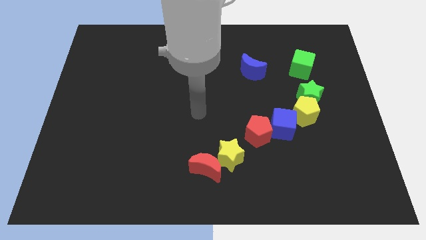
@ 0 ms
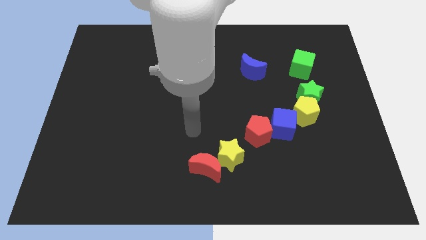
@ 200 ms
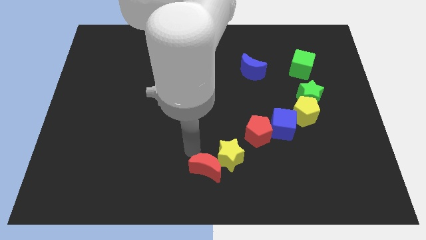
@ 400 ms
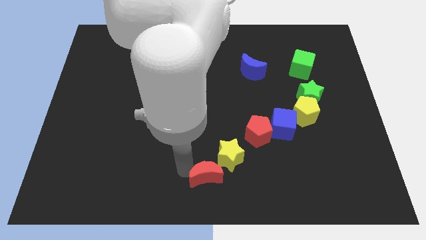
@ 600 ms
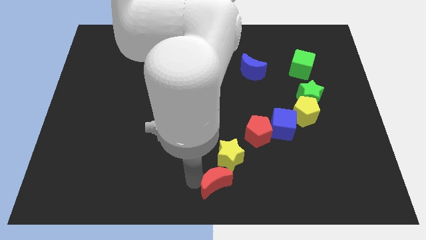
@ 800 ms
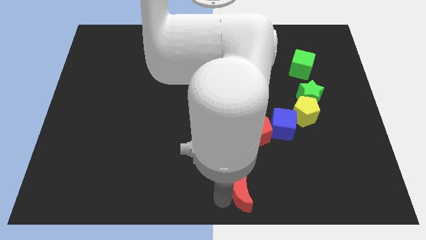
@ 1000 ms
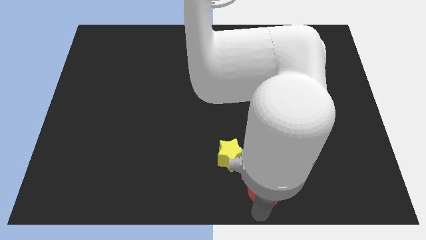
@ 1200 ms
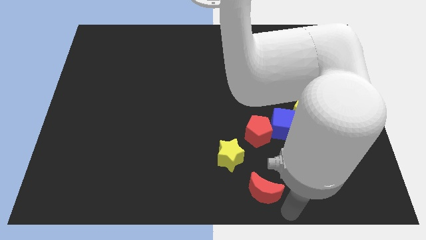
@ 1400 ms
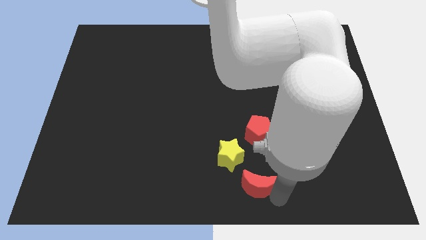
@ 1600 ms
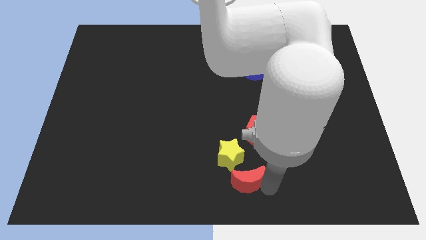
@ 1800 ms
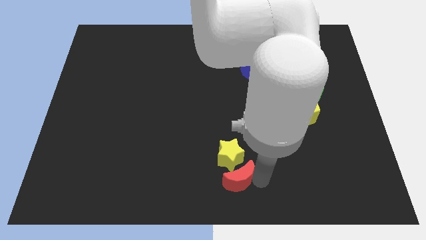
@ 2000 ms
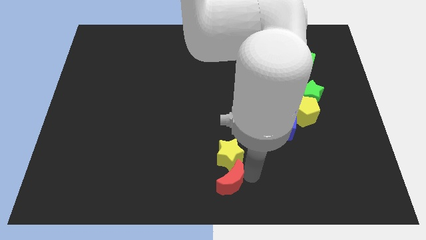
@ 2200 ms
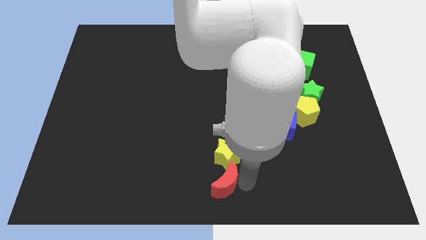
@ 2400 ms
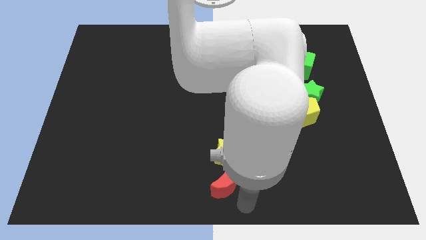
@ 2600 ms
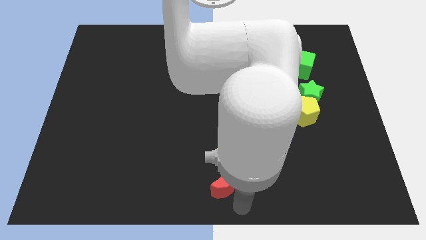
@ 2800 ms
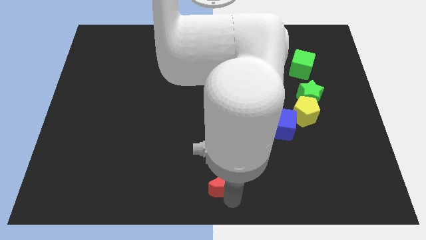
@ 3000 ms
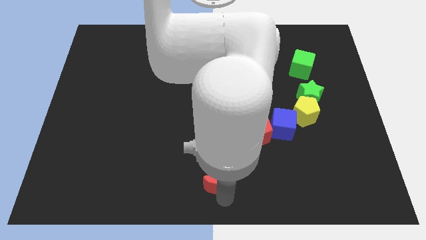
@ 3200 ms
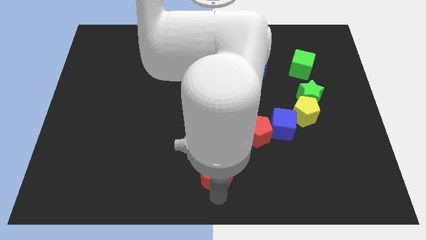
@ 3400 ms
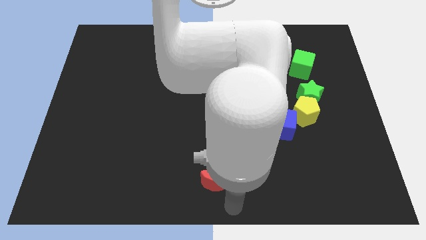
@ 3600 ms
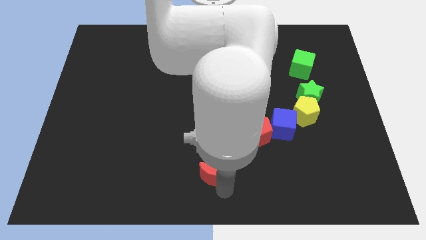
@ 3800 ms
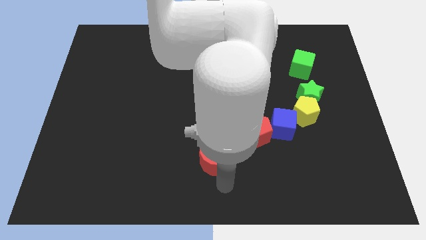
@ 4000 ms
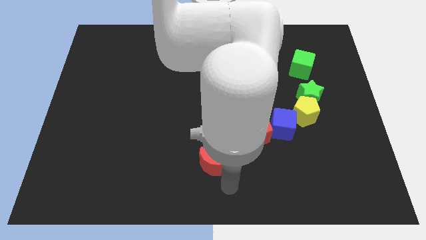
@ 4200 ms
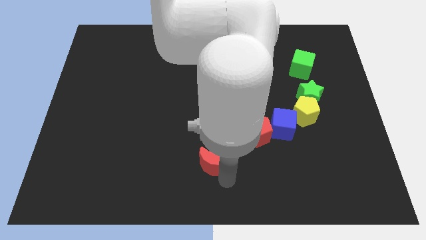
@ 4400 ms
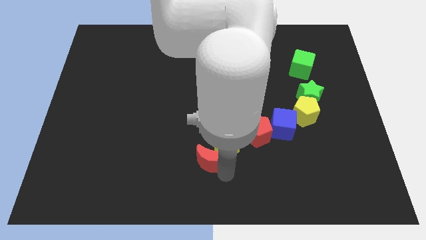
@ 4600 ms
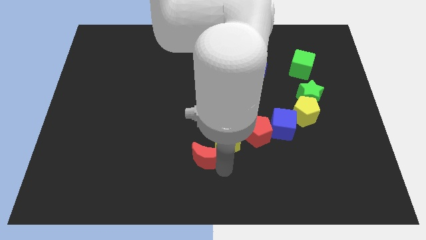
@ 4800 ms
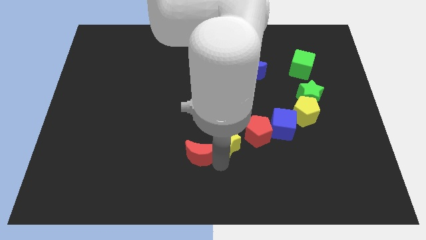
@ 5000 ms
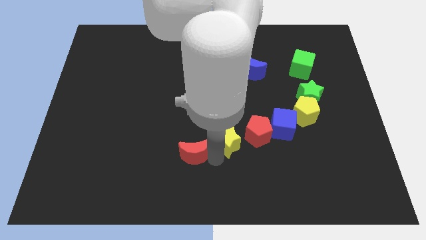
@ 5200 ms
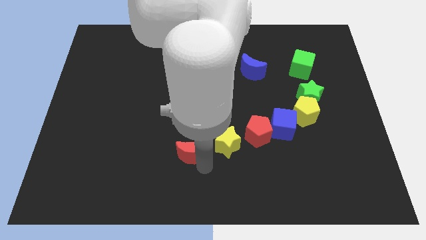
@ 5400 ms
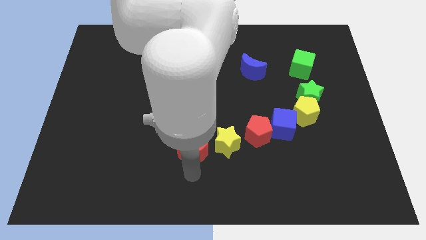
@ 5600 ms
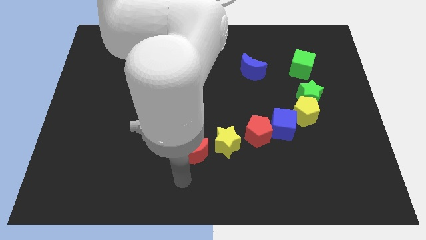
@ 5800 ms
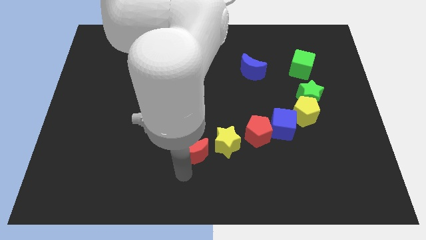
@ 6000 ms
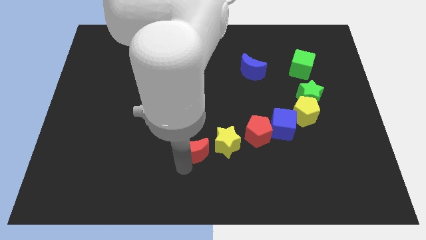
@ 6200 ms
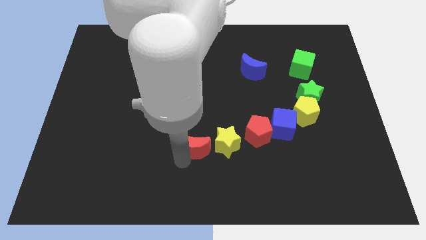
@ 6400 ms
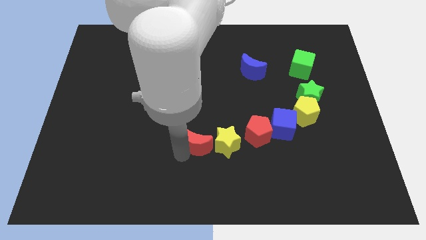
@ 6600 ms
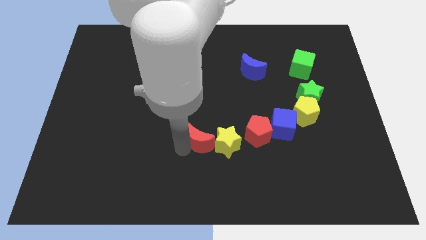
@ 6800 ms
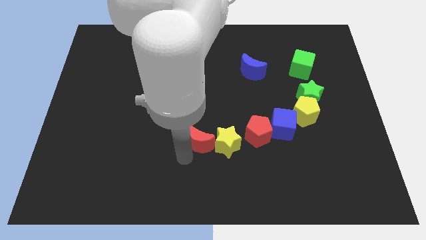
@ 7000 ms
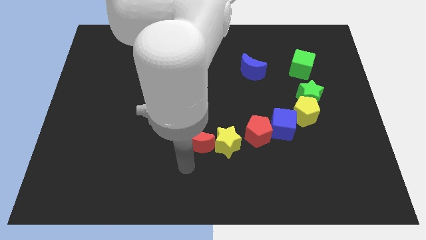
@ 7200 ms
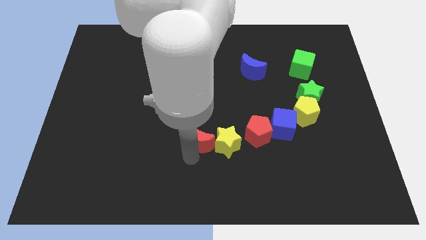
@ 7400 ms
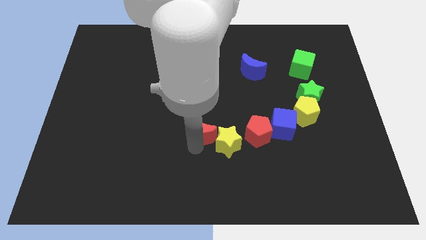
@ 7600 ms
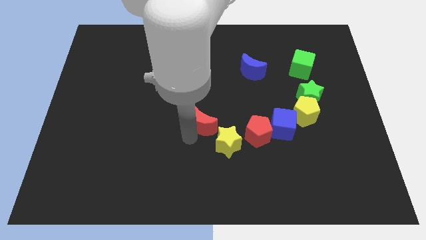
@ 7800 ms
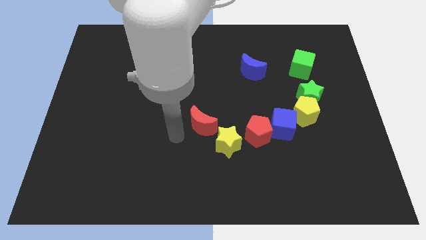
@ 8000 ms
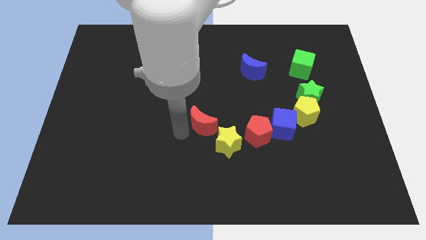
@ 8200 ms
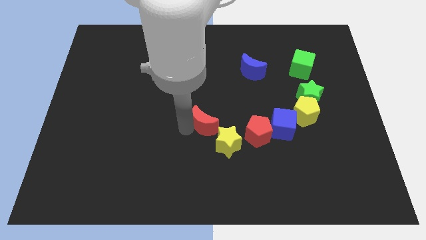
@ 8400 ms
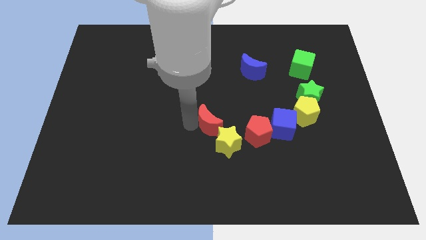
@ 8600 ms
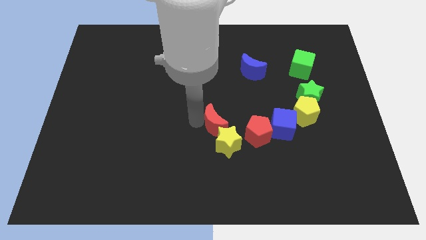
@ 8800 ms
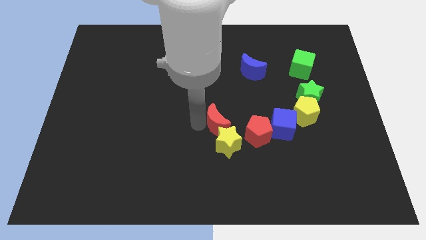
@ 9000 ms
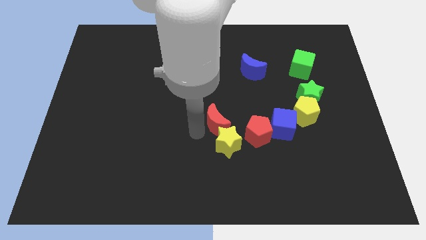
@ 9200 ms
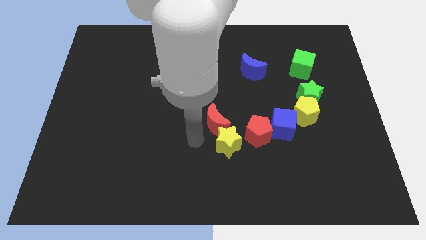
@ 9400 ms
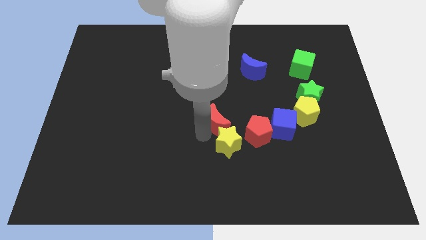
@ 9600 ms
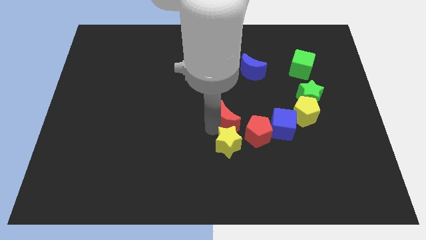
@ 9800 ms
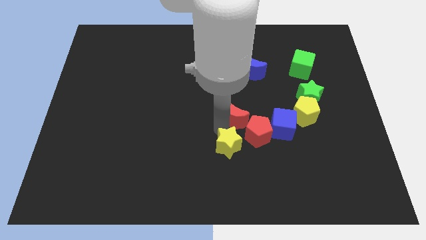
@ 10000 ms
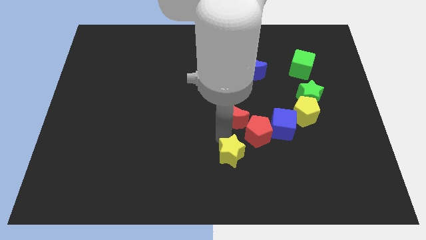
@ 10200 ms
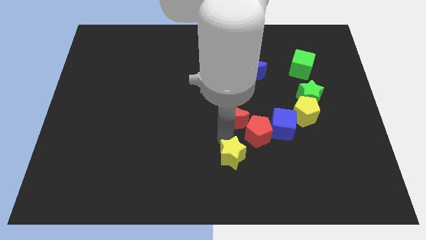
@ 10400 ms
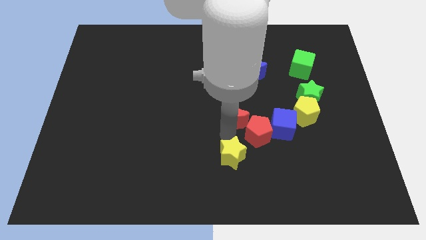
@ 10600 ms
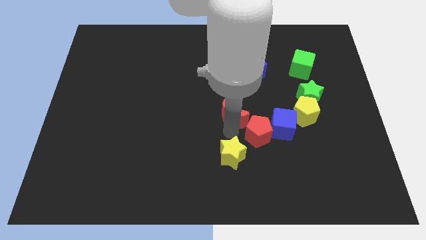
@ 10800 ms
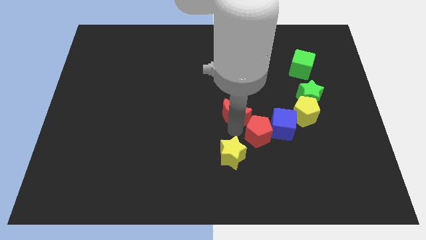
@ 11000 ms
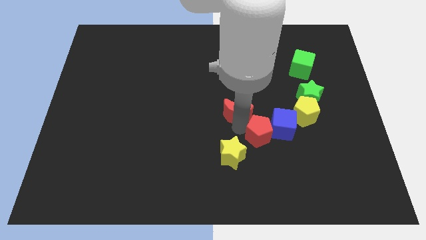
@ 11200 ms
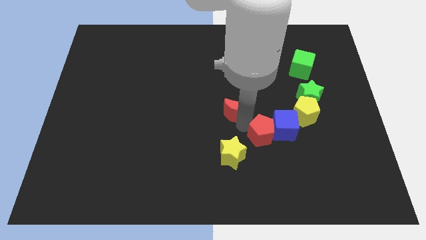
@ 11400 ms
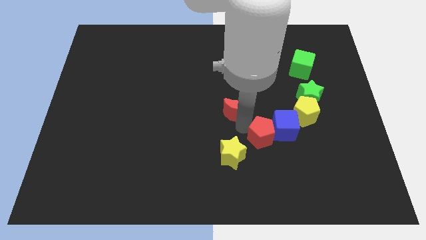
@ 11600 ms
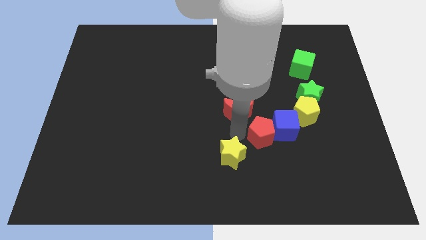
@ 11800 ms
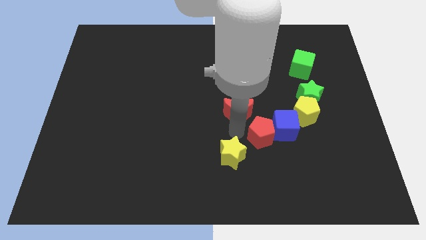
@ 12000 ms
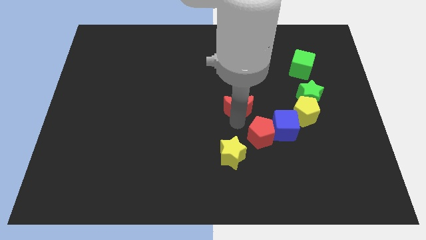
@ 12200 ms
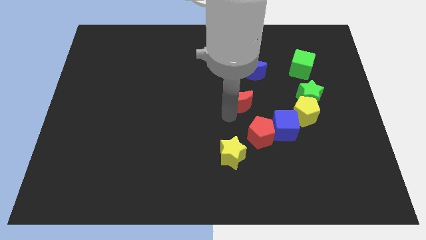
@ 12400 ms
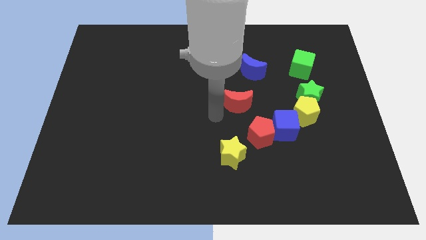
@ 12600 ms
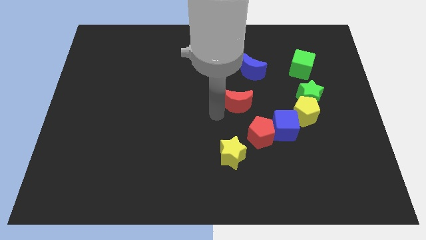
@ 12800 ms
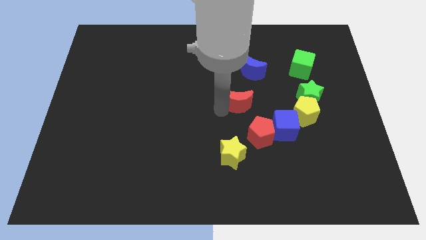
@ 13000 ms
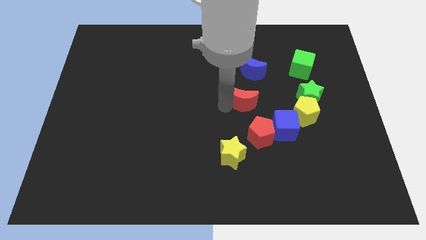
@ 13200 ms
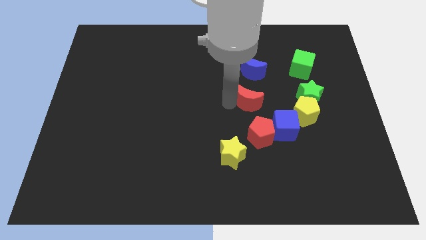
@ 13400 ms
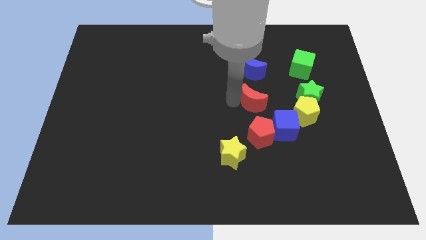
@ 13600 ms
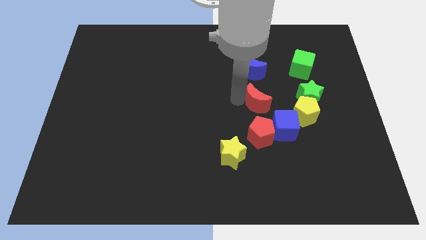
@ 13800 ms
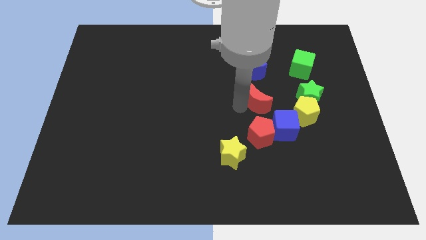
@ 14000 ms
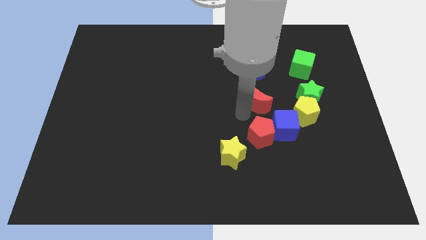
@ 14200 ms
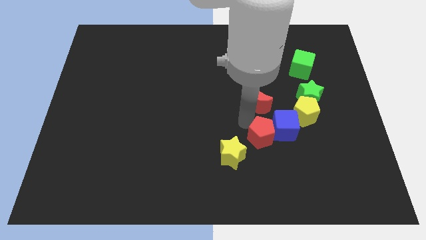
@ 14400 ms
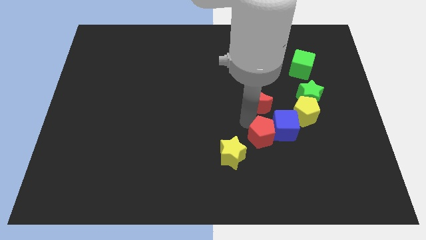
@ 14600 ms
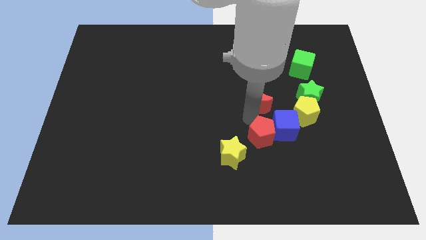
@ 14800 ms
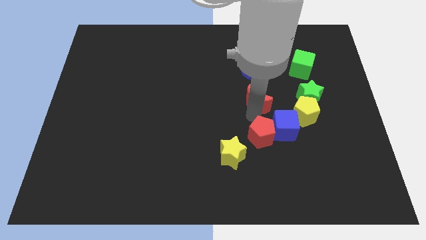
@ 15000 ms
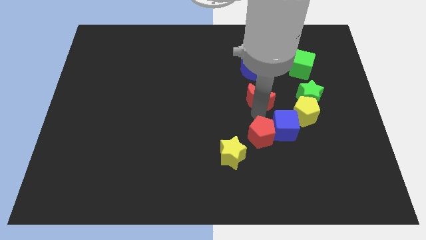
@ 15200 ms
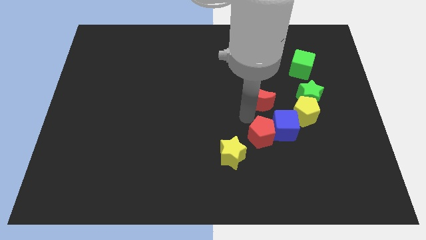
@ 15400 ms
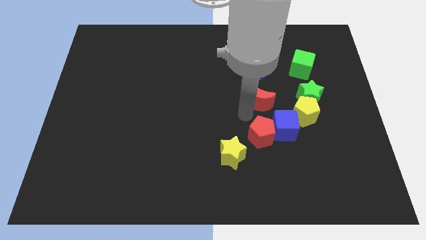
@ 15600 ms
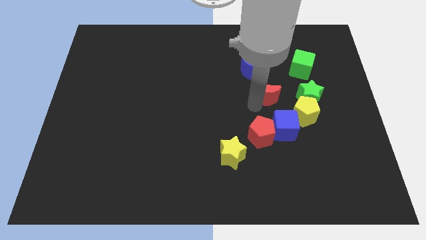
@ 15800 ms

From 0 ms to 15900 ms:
push the red moon to the bottom right side of the blue moon
